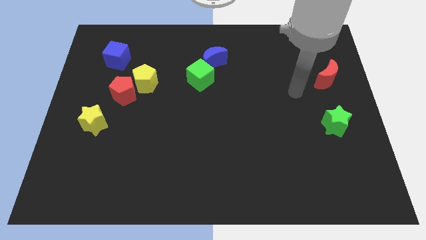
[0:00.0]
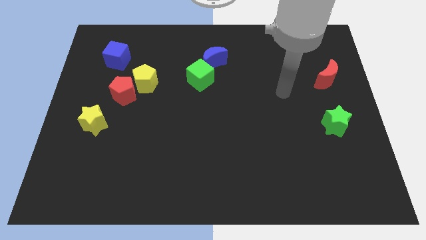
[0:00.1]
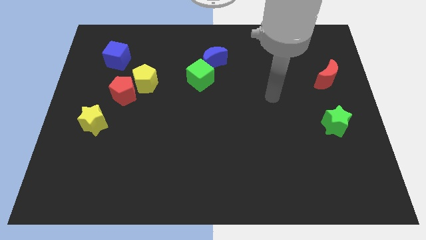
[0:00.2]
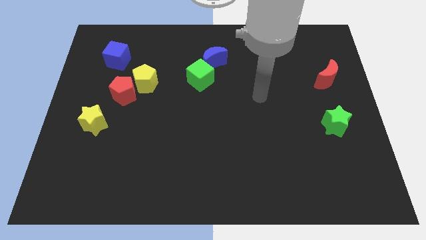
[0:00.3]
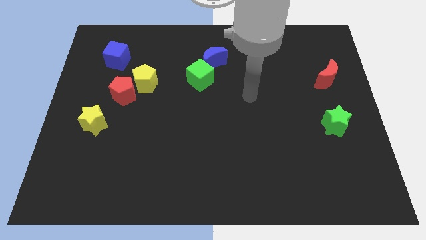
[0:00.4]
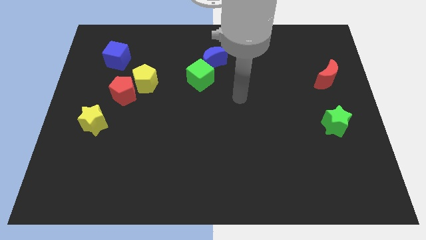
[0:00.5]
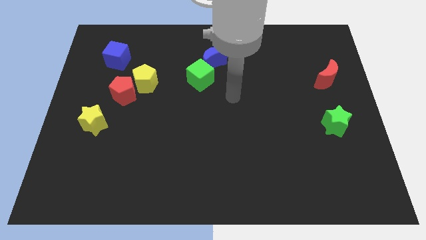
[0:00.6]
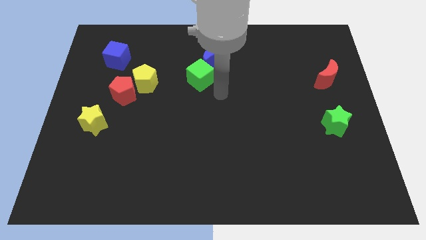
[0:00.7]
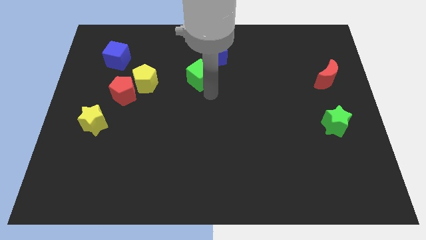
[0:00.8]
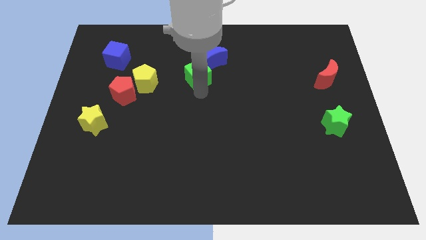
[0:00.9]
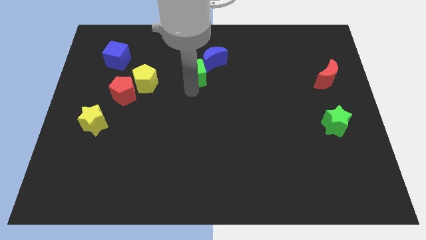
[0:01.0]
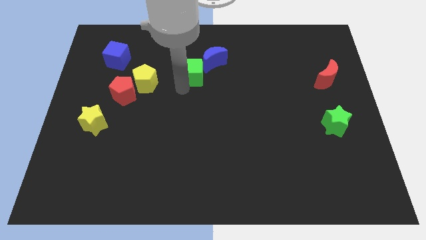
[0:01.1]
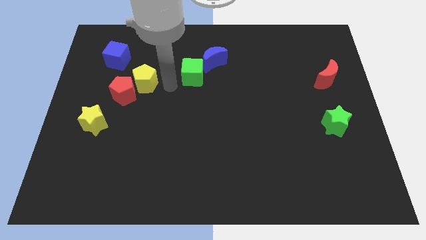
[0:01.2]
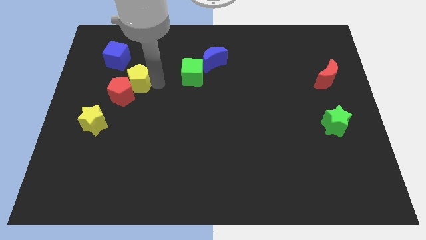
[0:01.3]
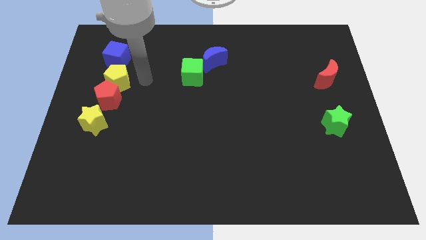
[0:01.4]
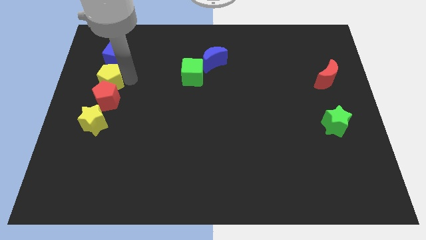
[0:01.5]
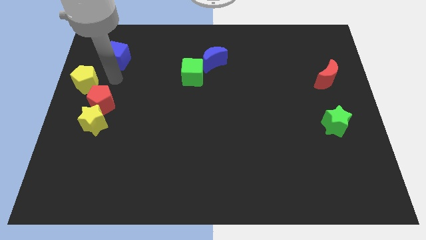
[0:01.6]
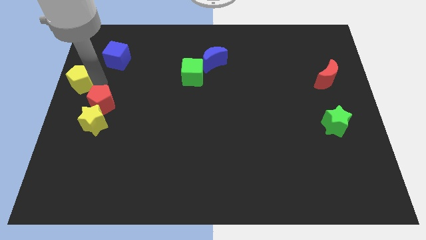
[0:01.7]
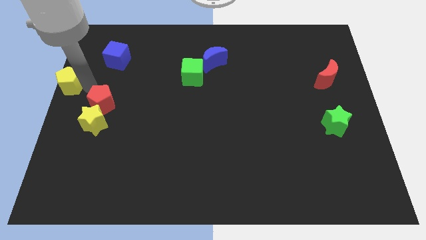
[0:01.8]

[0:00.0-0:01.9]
pull the red pentagon apart from the yellow pentagon

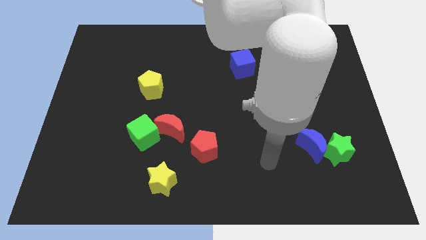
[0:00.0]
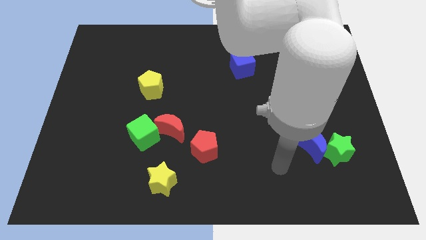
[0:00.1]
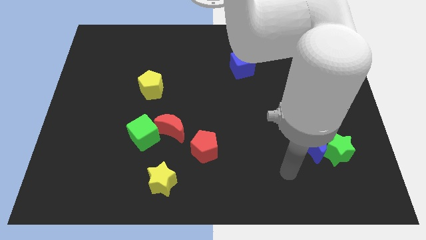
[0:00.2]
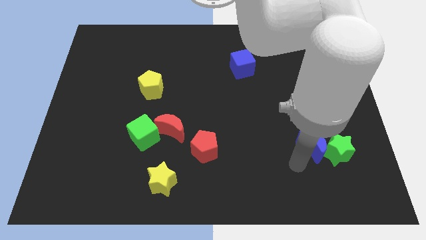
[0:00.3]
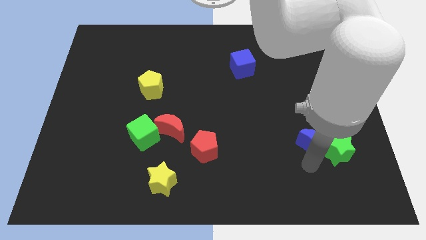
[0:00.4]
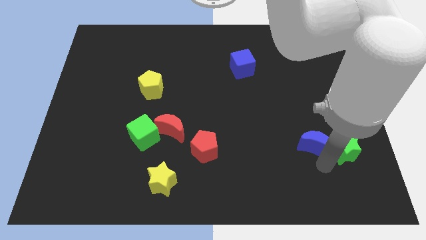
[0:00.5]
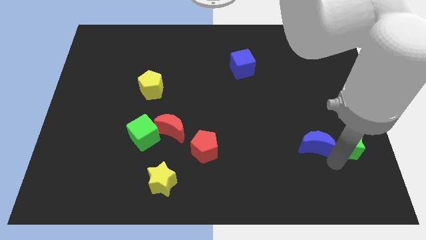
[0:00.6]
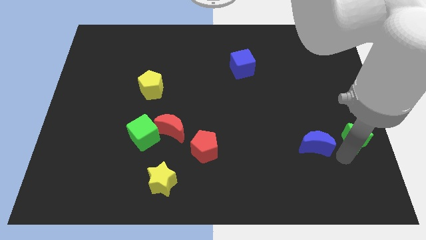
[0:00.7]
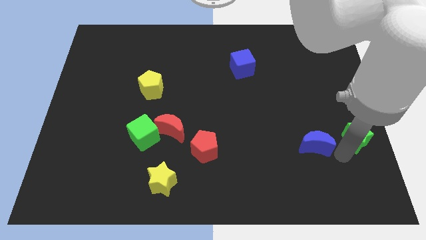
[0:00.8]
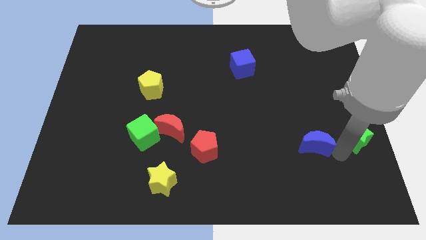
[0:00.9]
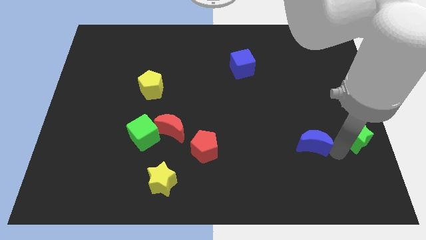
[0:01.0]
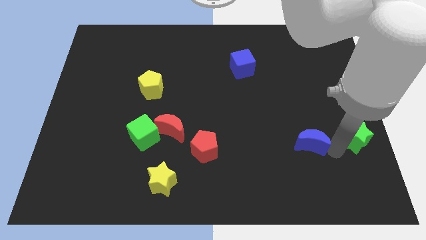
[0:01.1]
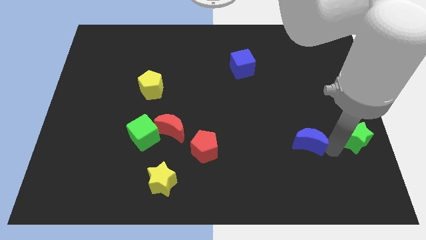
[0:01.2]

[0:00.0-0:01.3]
pull the blue moon apart from the green star

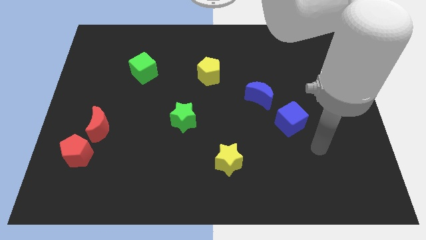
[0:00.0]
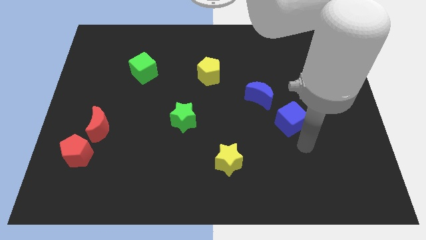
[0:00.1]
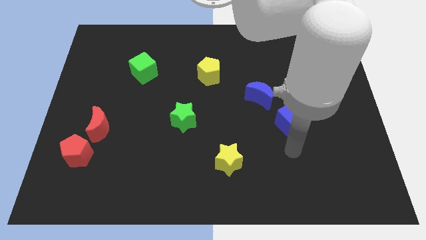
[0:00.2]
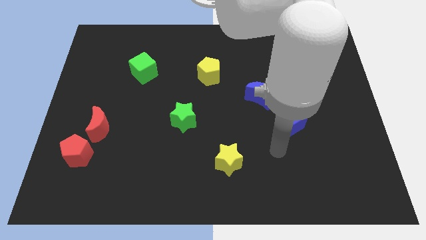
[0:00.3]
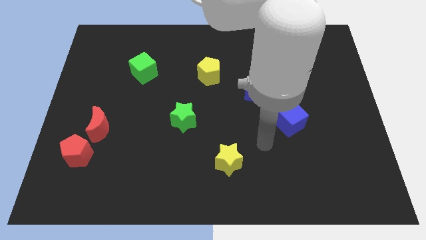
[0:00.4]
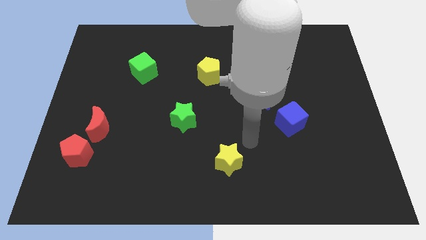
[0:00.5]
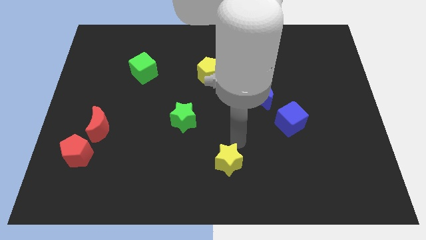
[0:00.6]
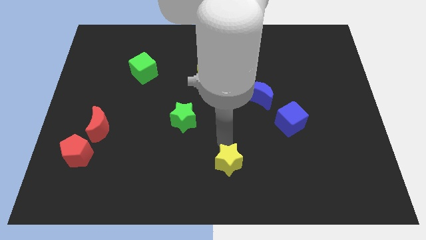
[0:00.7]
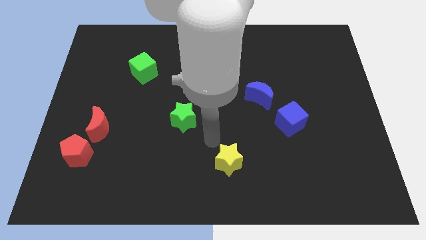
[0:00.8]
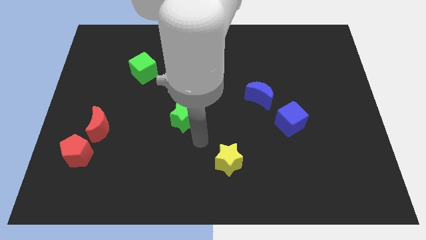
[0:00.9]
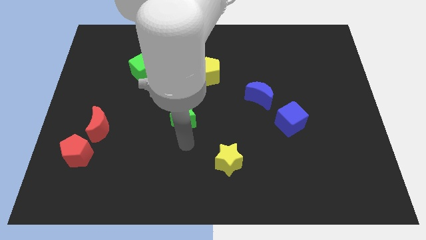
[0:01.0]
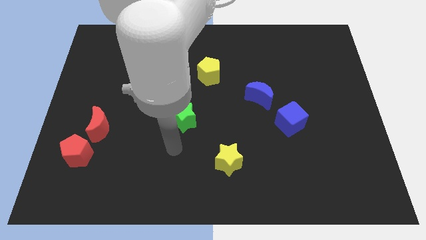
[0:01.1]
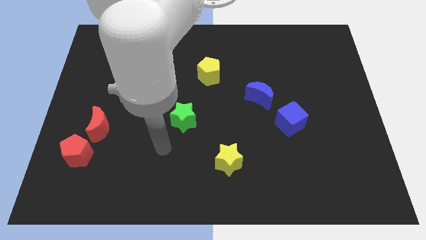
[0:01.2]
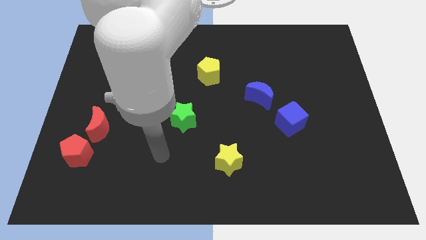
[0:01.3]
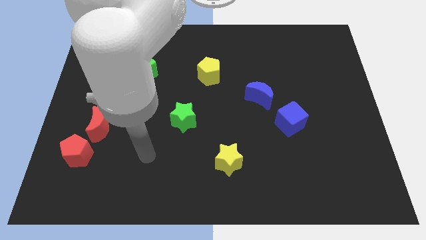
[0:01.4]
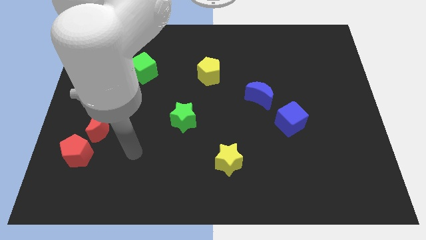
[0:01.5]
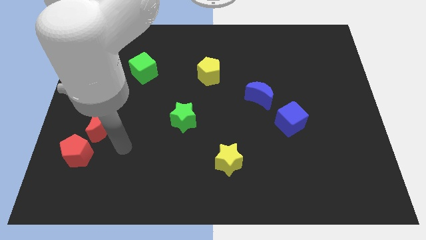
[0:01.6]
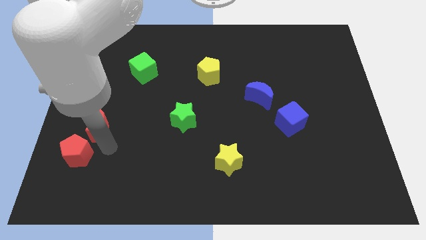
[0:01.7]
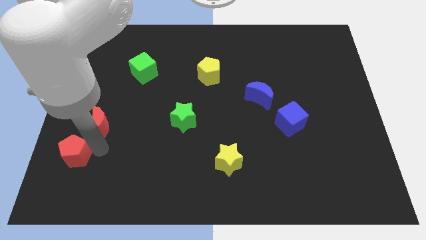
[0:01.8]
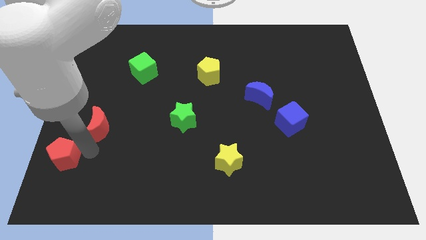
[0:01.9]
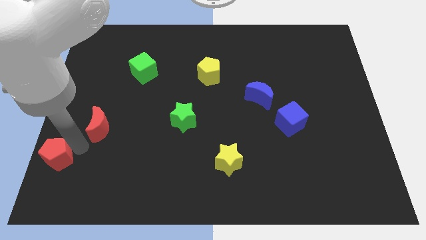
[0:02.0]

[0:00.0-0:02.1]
separate the red moon from the red pentagon

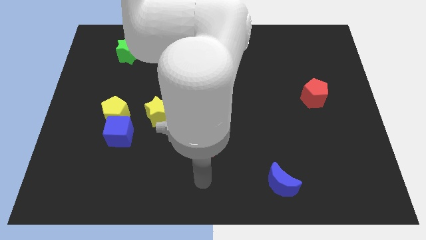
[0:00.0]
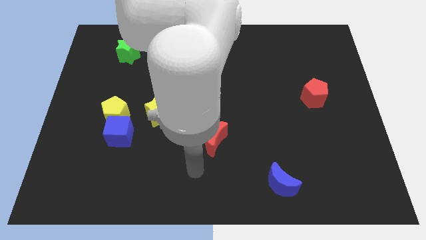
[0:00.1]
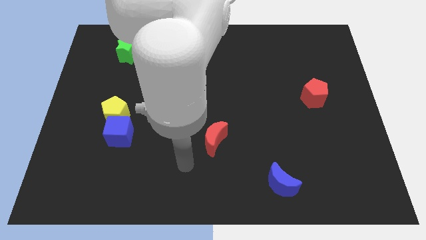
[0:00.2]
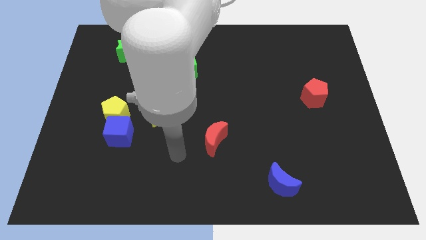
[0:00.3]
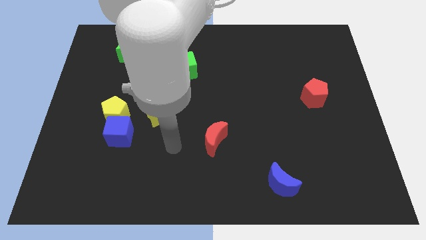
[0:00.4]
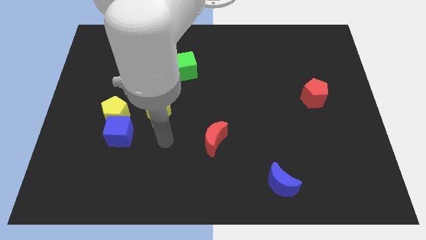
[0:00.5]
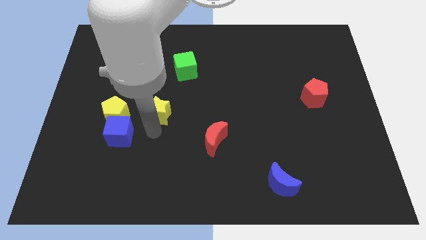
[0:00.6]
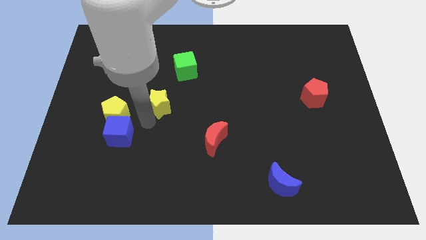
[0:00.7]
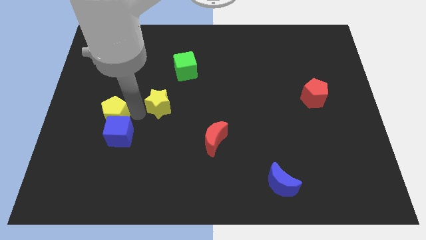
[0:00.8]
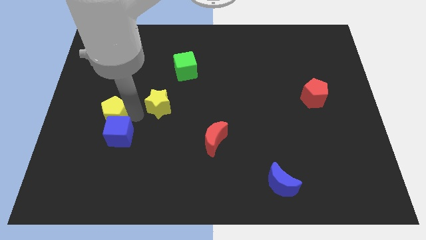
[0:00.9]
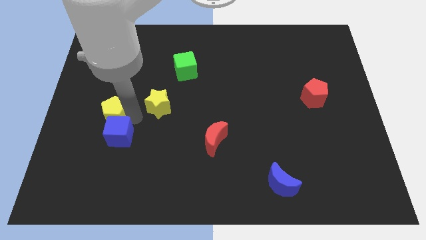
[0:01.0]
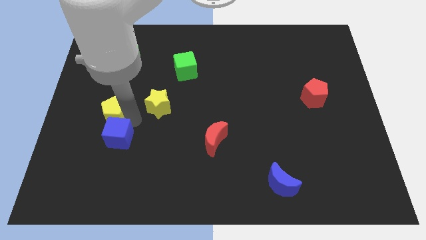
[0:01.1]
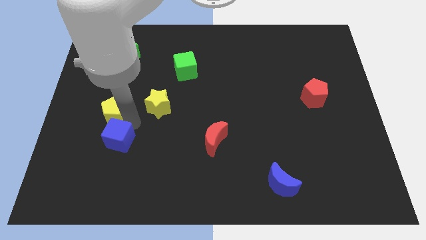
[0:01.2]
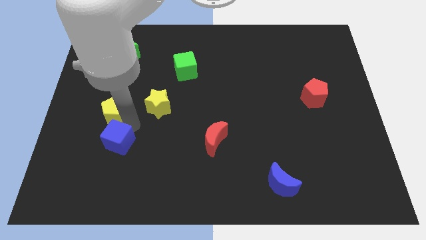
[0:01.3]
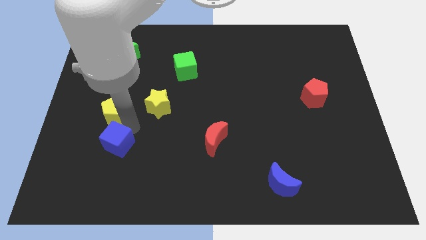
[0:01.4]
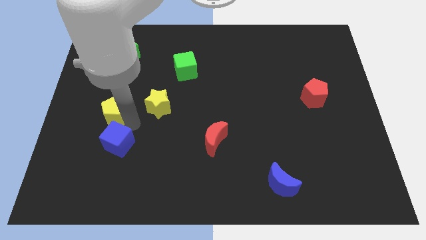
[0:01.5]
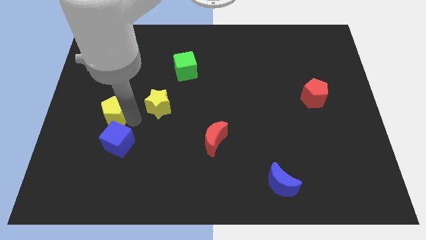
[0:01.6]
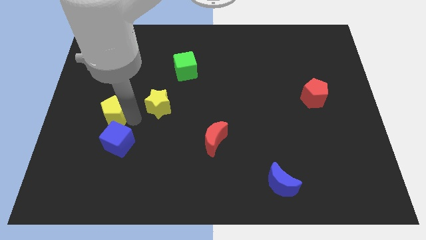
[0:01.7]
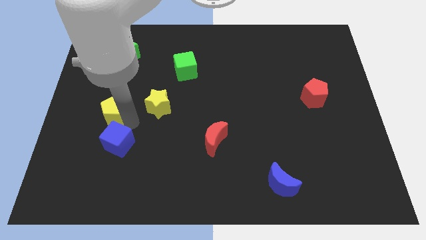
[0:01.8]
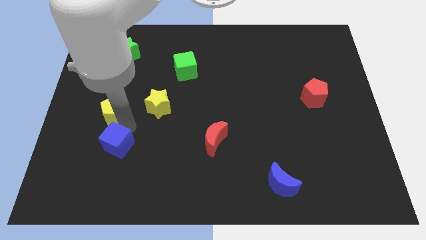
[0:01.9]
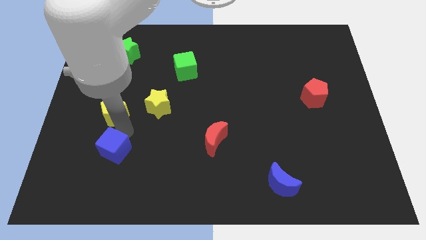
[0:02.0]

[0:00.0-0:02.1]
pull the blue cube apart from the yellow pentagon and yellow star

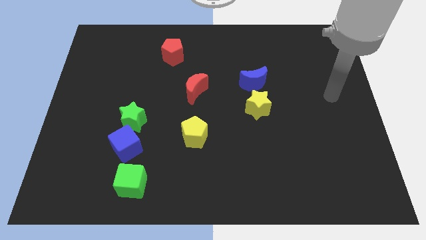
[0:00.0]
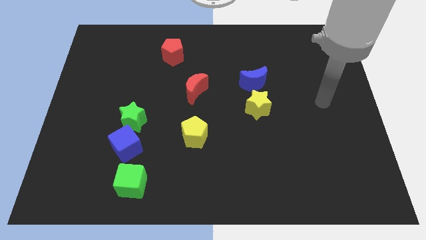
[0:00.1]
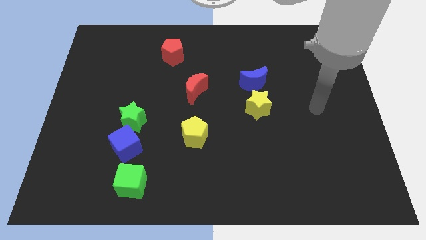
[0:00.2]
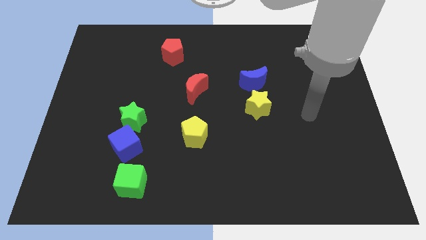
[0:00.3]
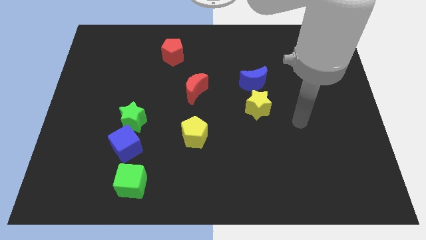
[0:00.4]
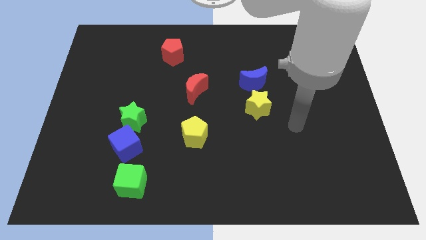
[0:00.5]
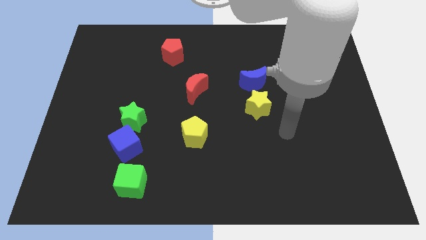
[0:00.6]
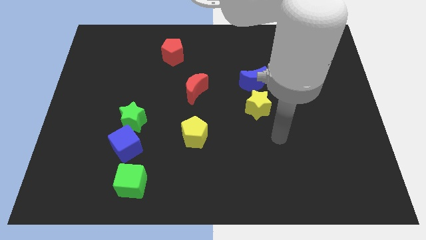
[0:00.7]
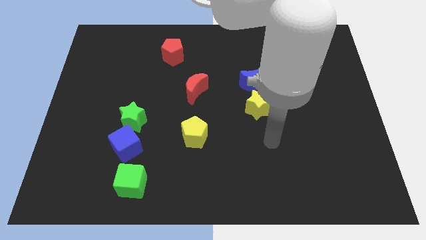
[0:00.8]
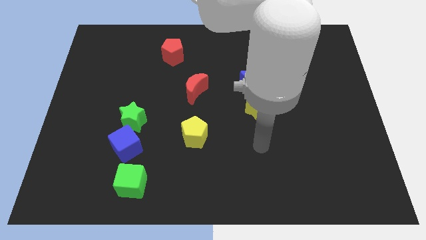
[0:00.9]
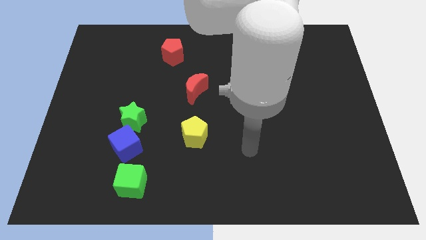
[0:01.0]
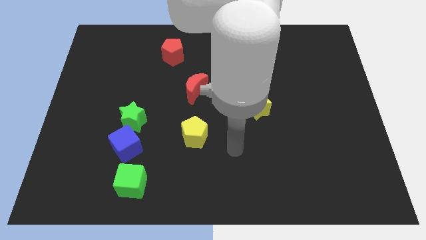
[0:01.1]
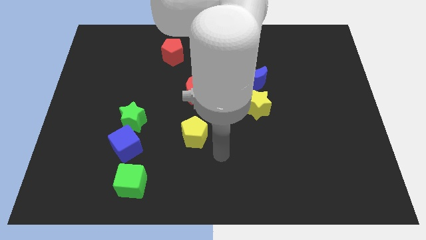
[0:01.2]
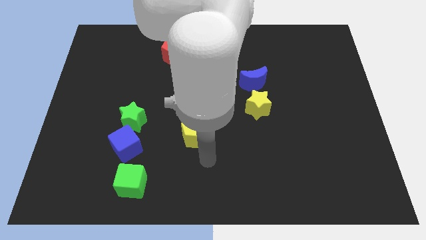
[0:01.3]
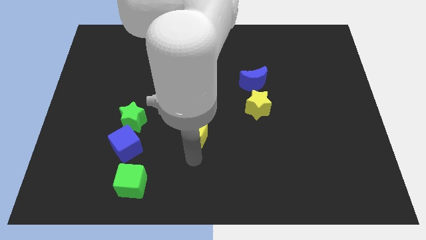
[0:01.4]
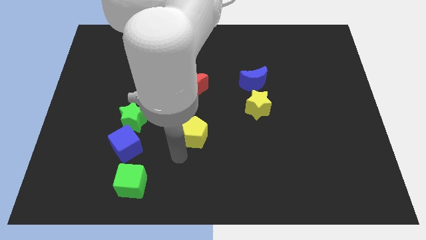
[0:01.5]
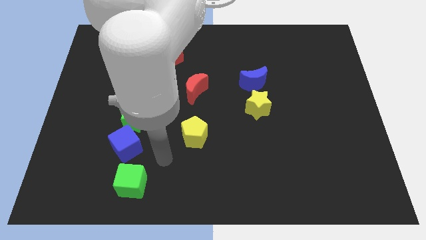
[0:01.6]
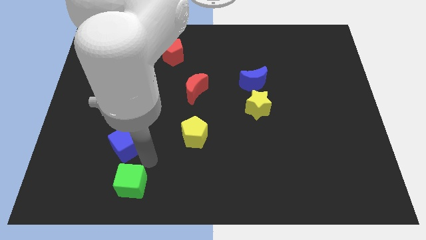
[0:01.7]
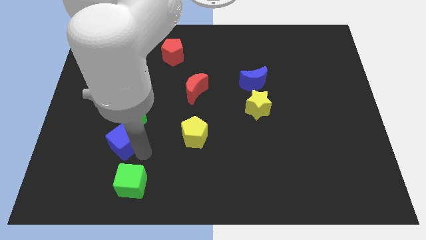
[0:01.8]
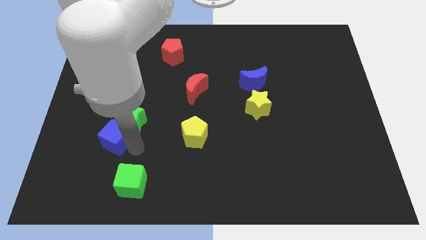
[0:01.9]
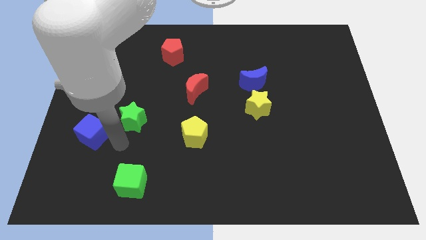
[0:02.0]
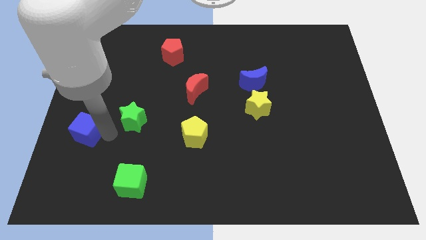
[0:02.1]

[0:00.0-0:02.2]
pull the green star apart from the blue cube
